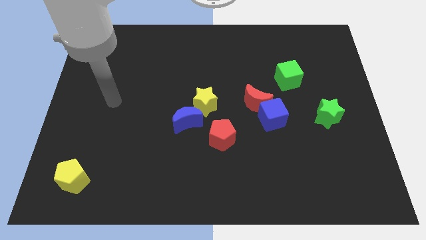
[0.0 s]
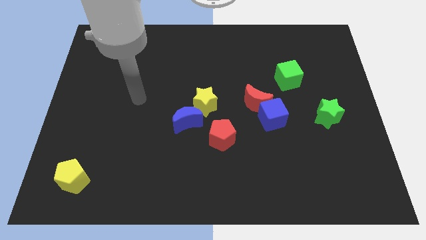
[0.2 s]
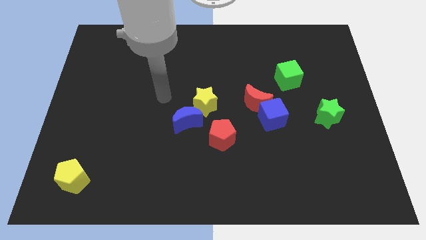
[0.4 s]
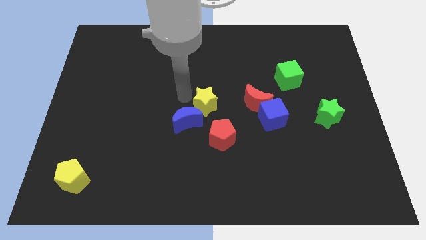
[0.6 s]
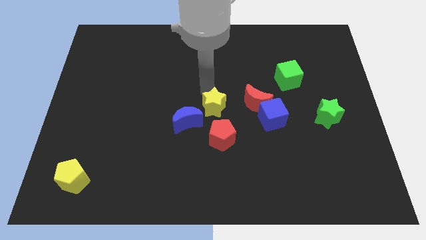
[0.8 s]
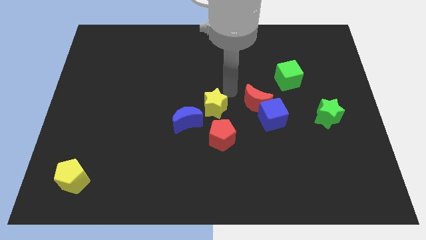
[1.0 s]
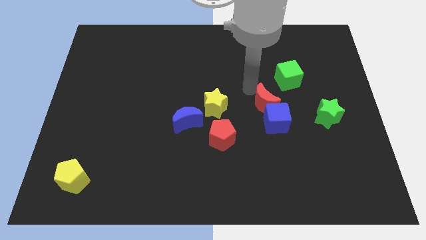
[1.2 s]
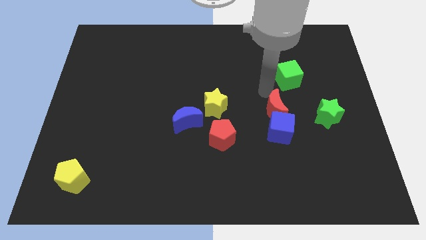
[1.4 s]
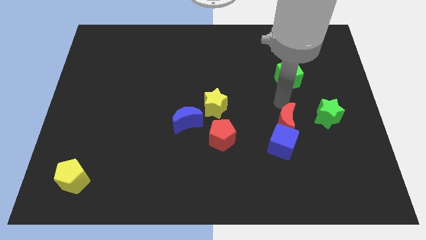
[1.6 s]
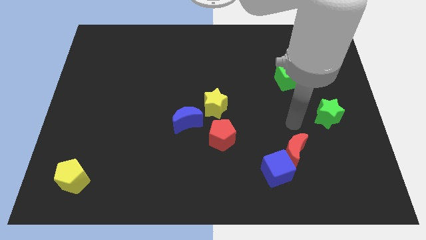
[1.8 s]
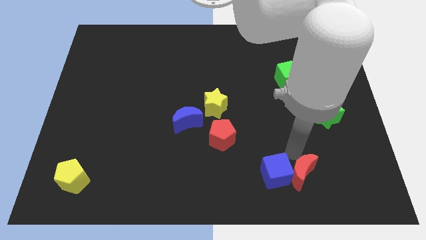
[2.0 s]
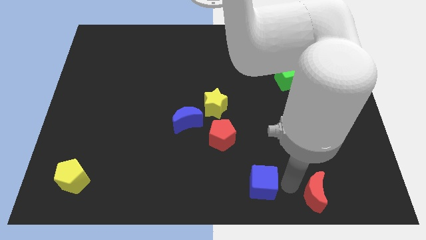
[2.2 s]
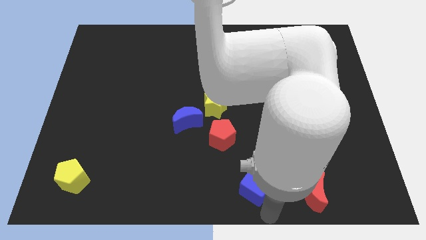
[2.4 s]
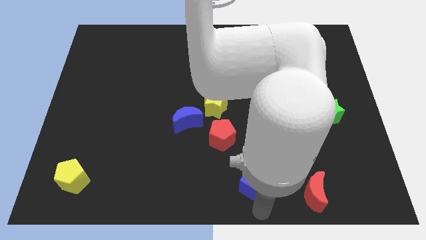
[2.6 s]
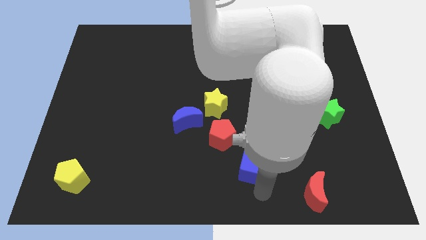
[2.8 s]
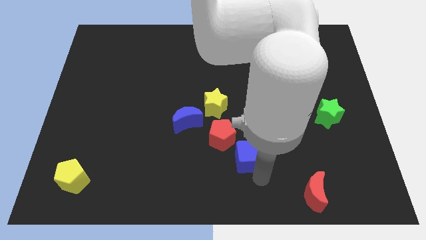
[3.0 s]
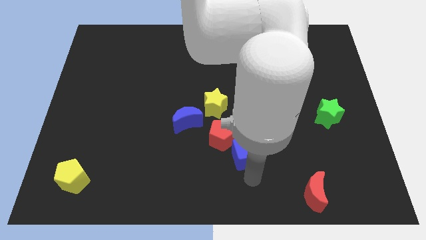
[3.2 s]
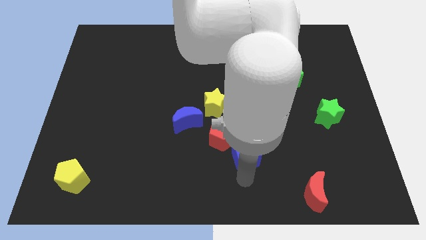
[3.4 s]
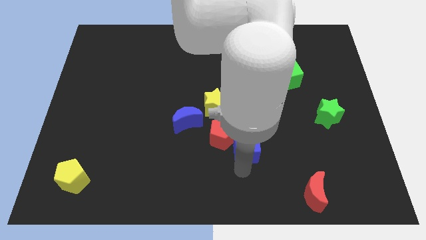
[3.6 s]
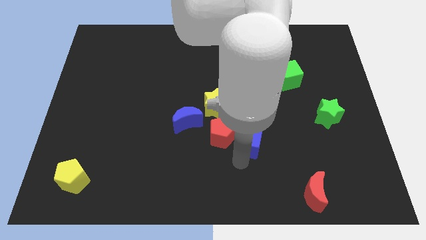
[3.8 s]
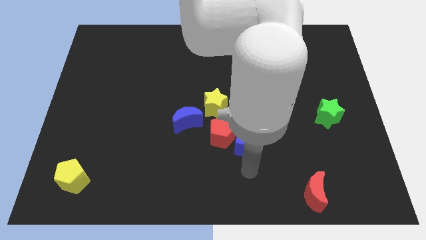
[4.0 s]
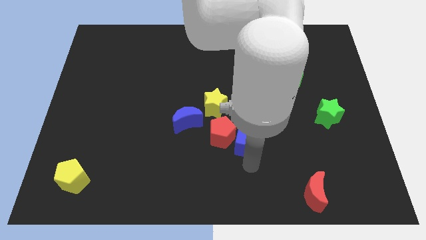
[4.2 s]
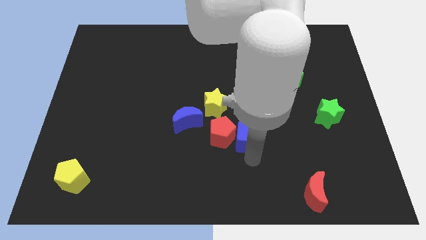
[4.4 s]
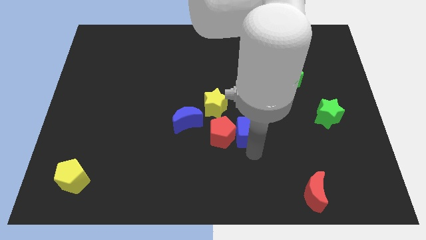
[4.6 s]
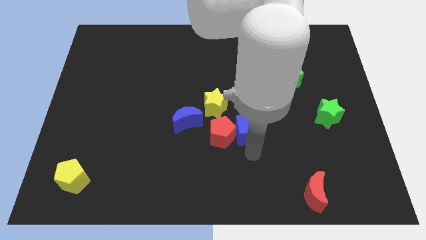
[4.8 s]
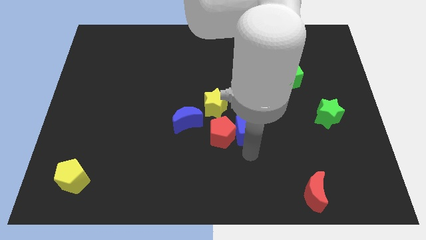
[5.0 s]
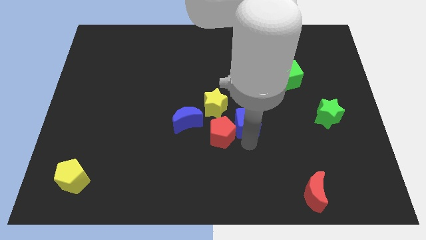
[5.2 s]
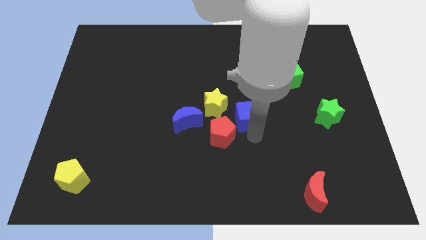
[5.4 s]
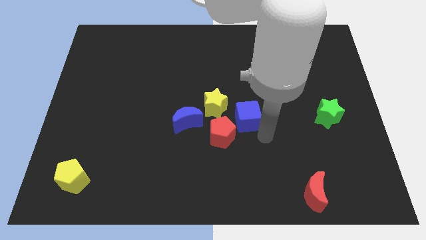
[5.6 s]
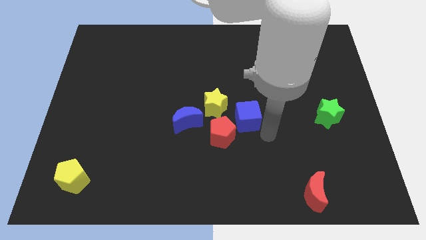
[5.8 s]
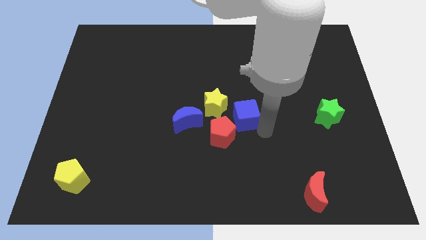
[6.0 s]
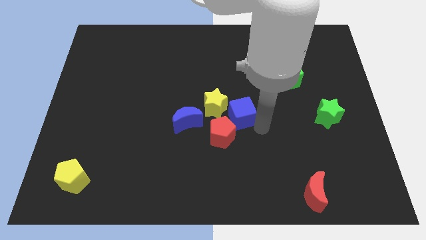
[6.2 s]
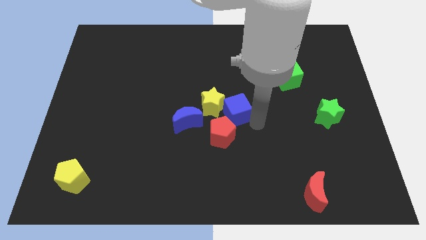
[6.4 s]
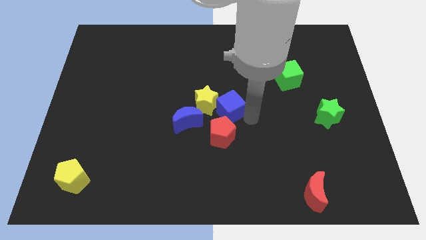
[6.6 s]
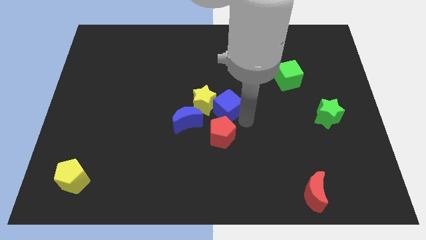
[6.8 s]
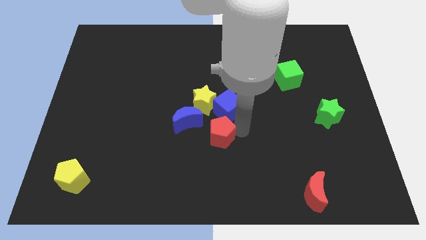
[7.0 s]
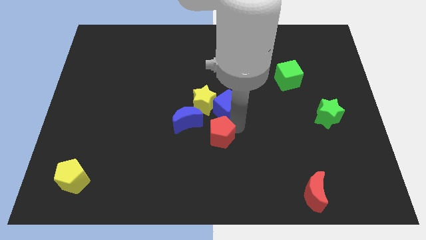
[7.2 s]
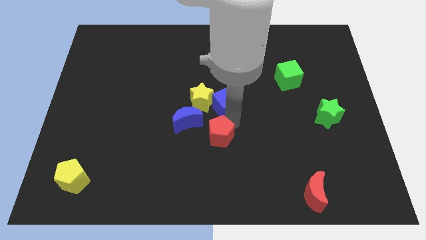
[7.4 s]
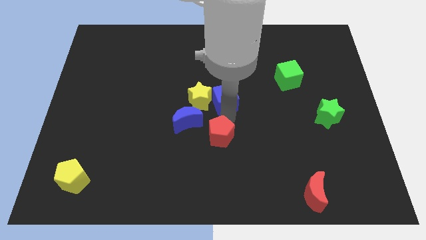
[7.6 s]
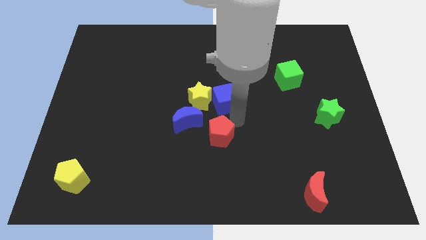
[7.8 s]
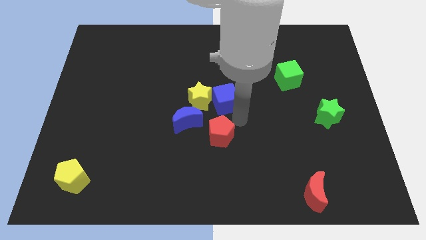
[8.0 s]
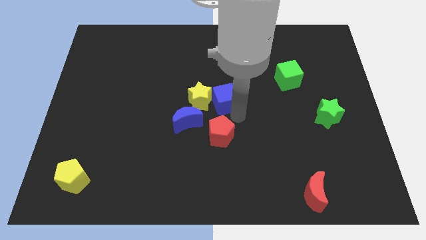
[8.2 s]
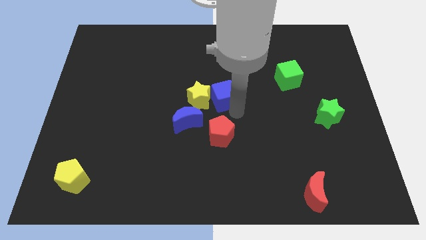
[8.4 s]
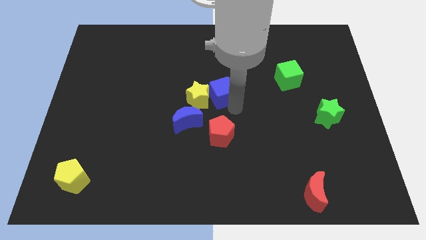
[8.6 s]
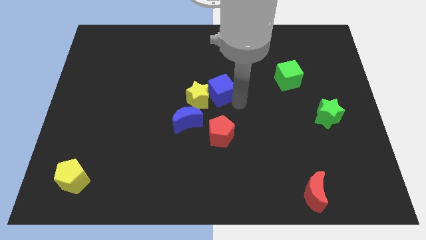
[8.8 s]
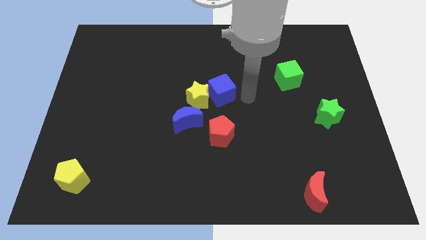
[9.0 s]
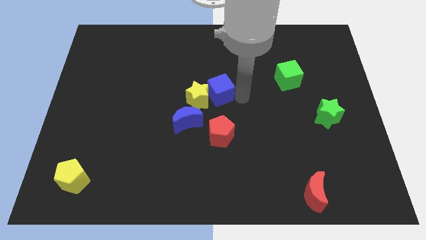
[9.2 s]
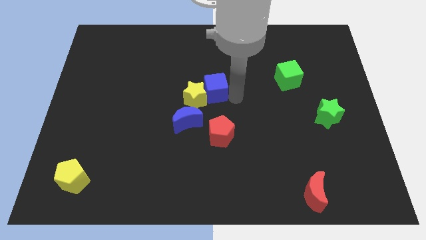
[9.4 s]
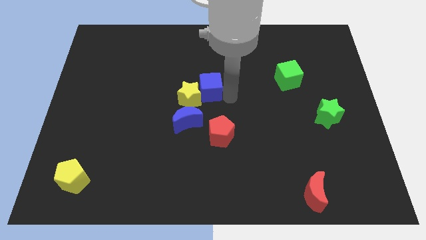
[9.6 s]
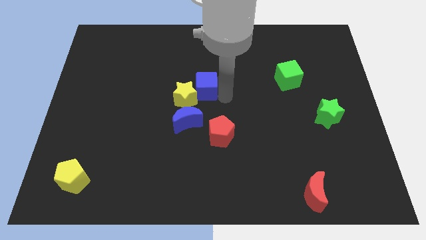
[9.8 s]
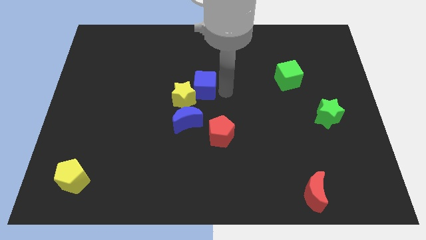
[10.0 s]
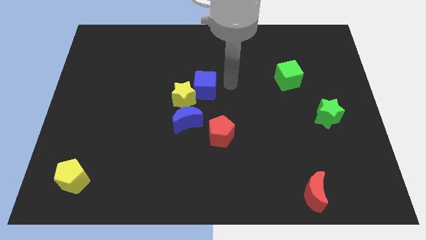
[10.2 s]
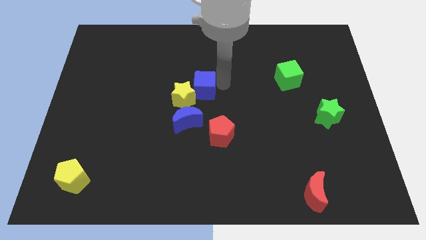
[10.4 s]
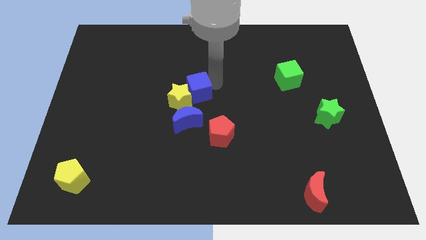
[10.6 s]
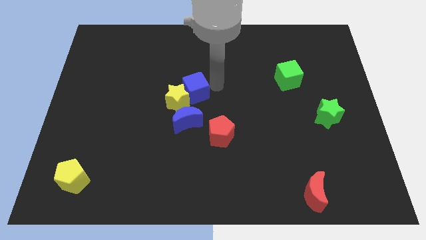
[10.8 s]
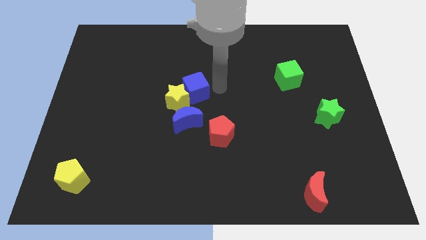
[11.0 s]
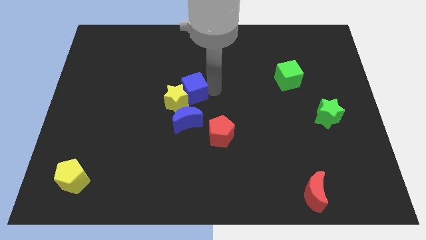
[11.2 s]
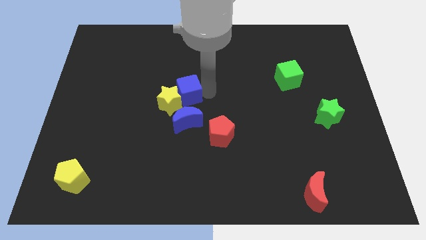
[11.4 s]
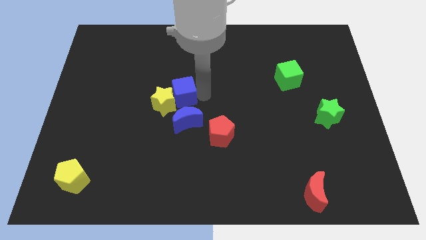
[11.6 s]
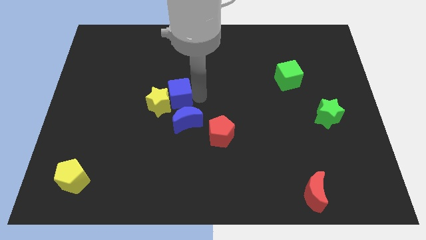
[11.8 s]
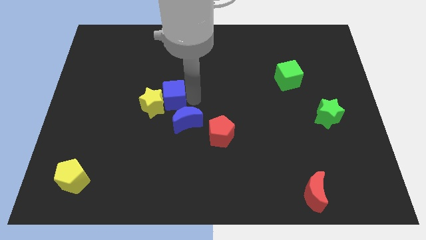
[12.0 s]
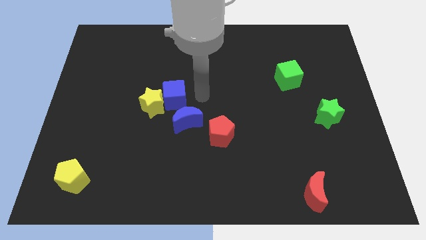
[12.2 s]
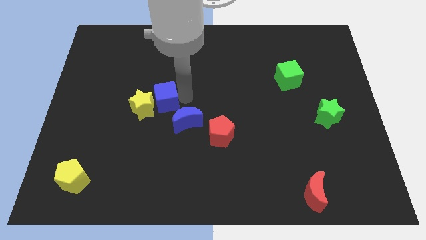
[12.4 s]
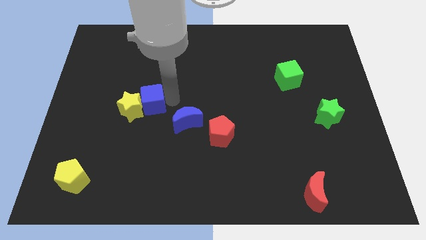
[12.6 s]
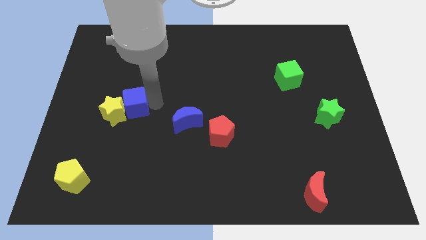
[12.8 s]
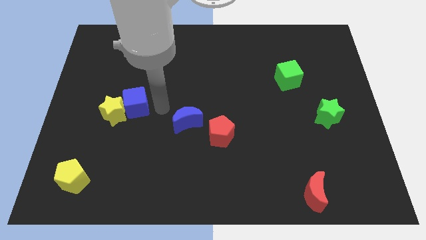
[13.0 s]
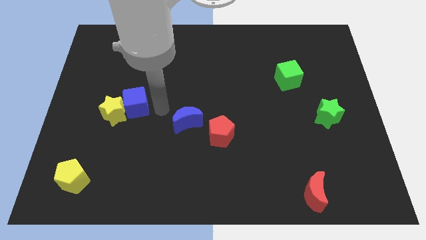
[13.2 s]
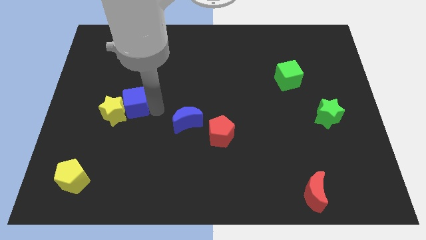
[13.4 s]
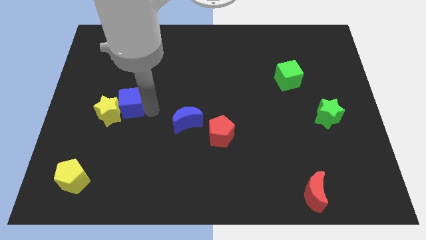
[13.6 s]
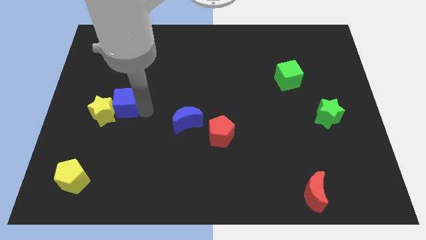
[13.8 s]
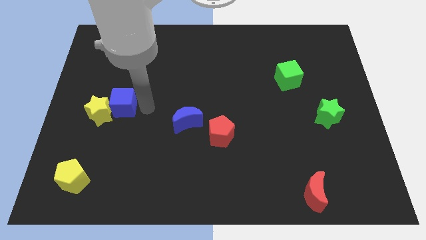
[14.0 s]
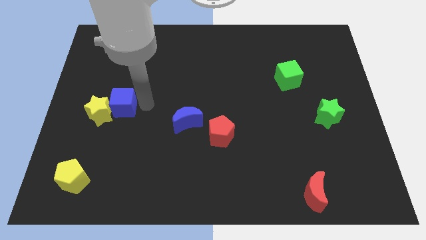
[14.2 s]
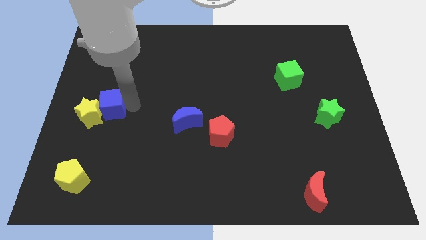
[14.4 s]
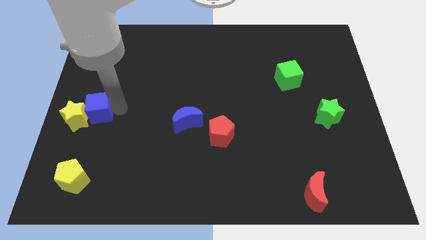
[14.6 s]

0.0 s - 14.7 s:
move the blue cube to the left side of the board
